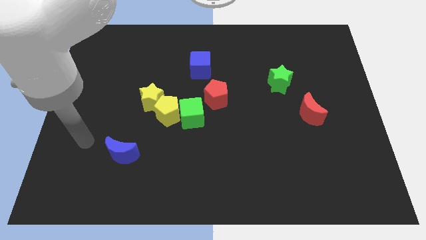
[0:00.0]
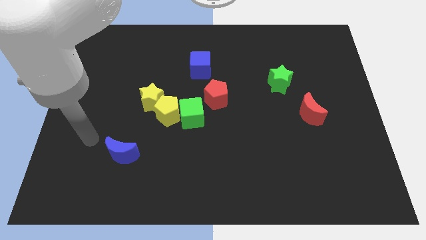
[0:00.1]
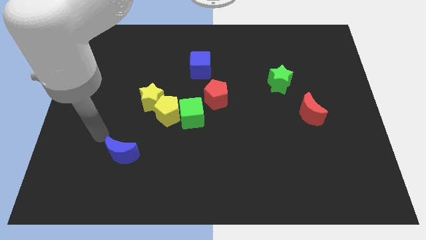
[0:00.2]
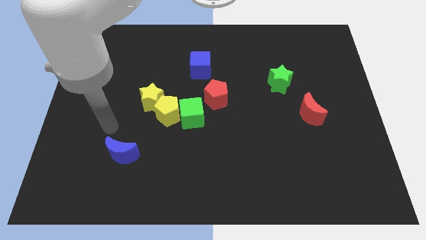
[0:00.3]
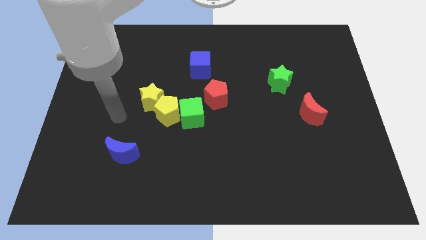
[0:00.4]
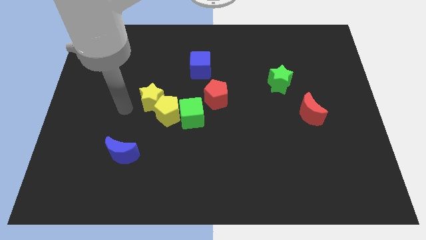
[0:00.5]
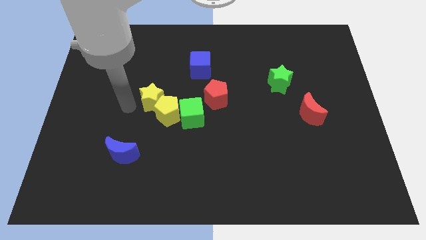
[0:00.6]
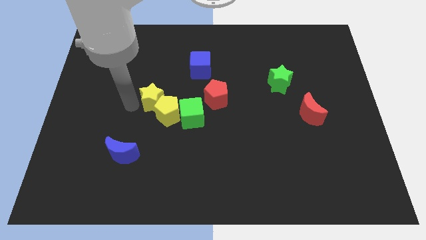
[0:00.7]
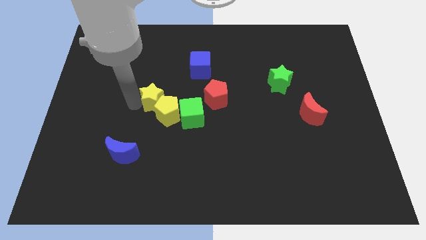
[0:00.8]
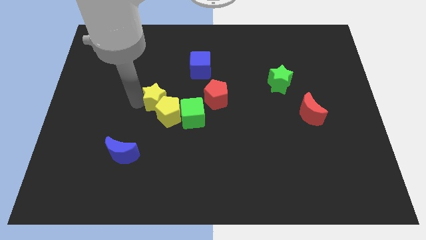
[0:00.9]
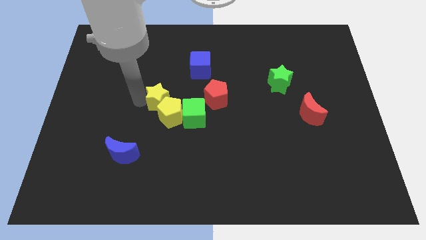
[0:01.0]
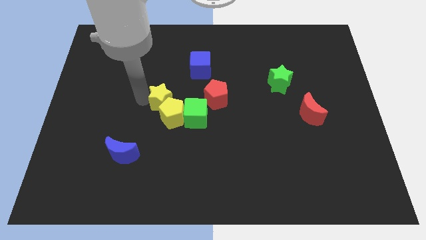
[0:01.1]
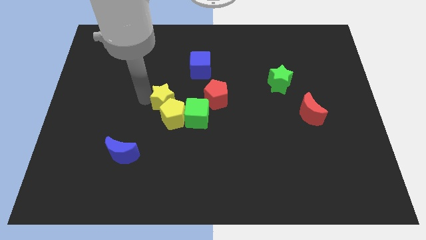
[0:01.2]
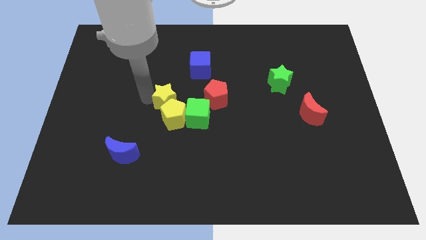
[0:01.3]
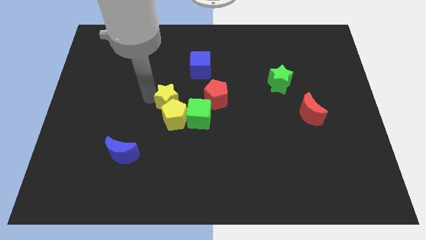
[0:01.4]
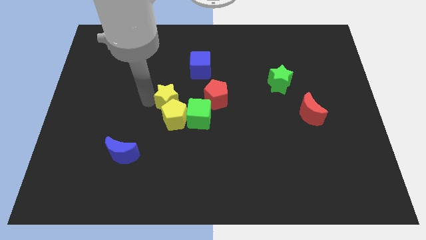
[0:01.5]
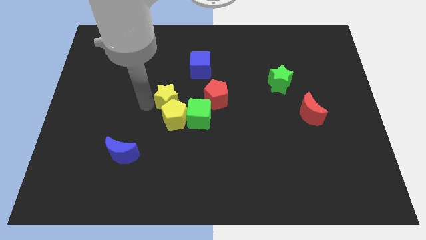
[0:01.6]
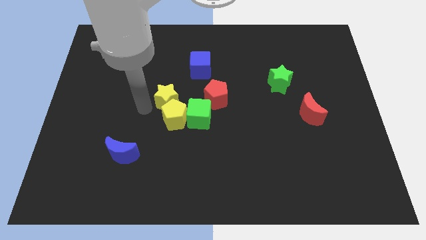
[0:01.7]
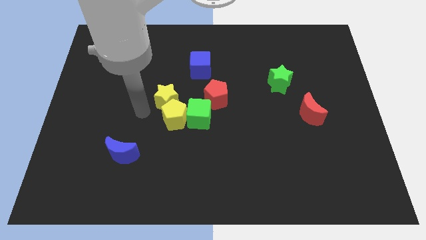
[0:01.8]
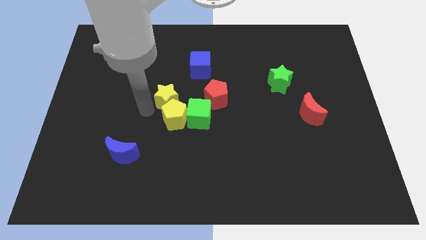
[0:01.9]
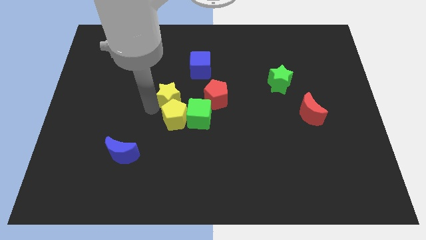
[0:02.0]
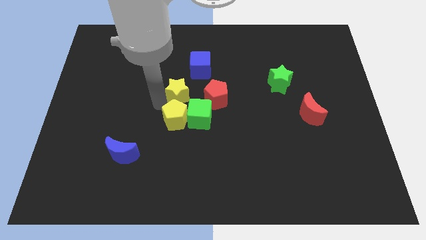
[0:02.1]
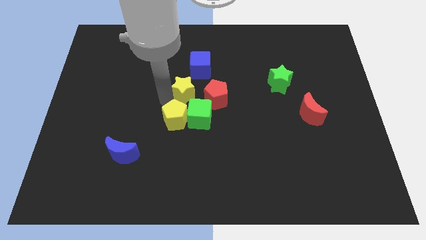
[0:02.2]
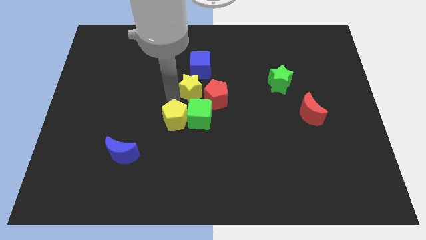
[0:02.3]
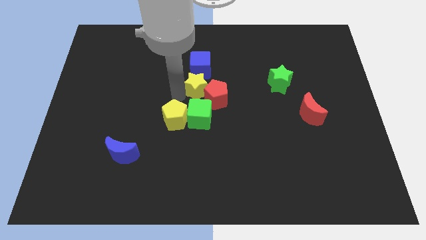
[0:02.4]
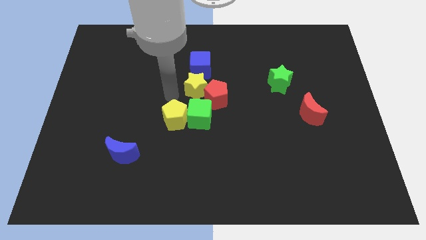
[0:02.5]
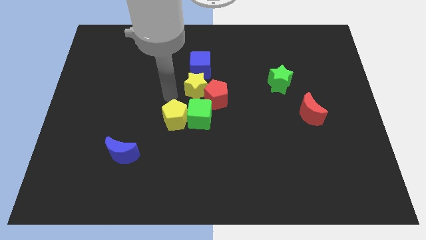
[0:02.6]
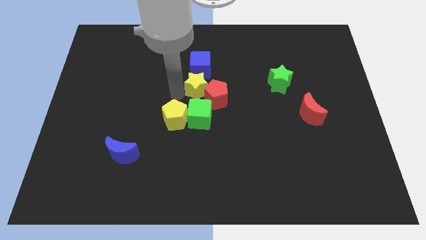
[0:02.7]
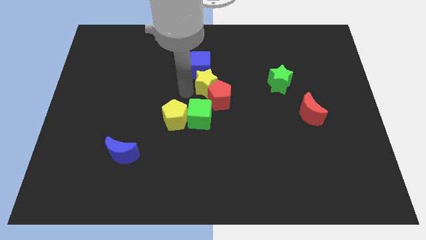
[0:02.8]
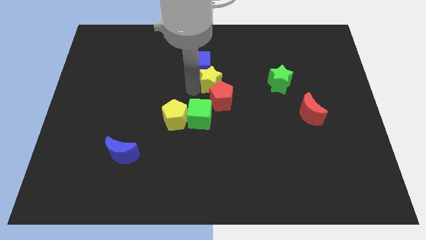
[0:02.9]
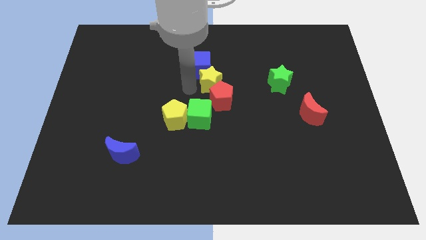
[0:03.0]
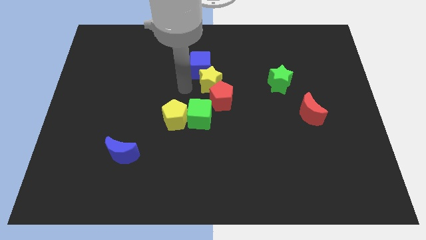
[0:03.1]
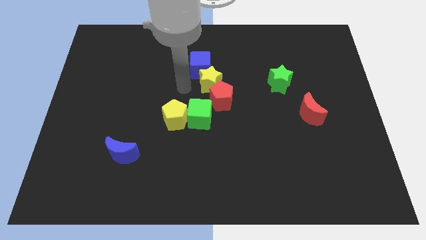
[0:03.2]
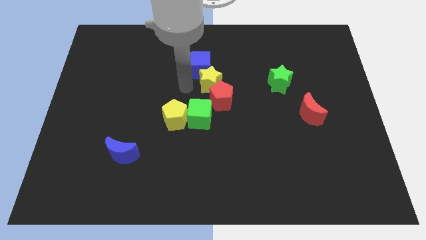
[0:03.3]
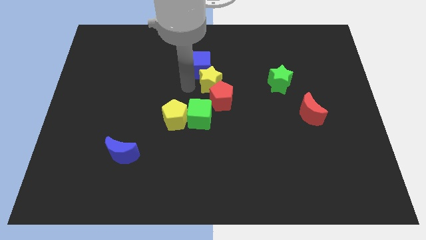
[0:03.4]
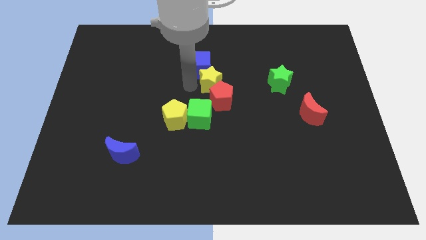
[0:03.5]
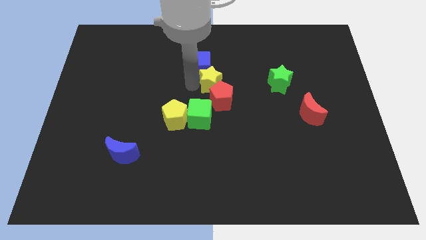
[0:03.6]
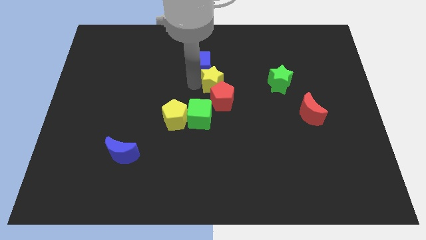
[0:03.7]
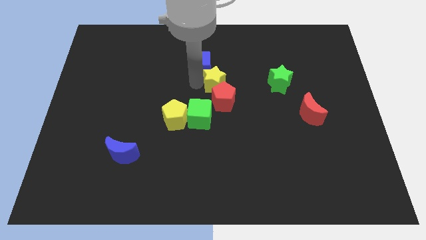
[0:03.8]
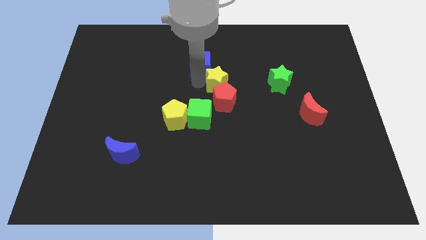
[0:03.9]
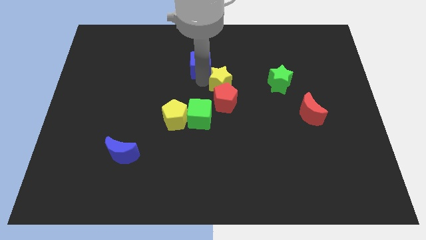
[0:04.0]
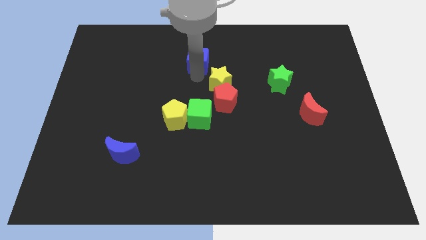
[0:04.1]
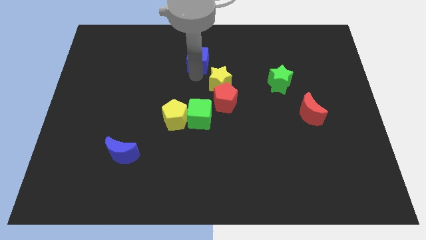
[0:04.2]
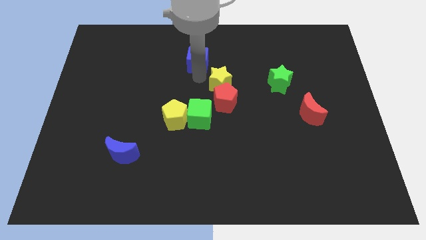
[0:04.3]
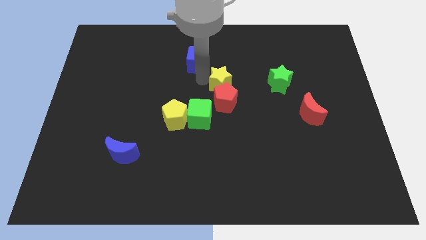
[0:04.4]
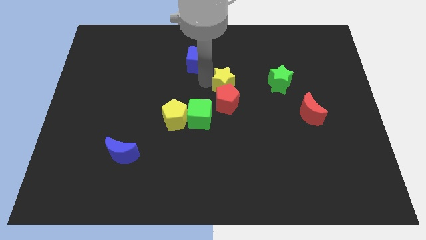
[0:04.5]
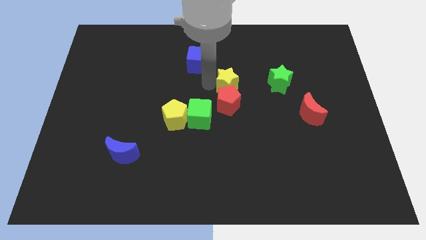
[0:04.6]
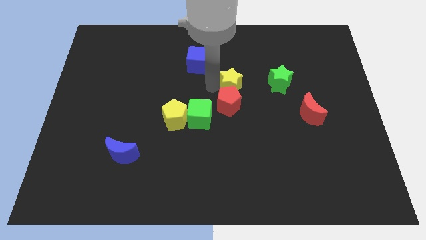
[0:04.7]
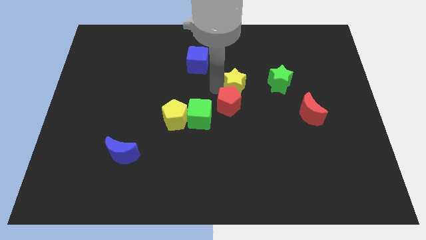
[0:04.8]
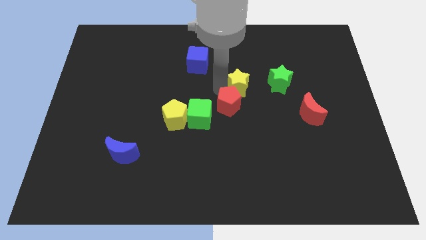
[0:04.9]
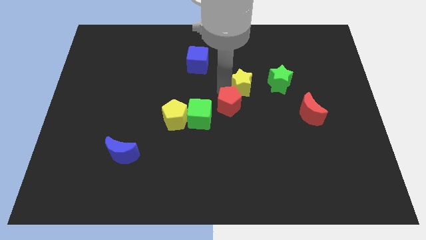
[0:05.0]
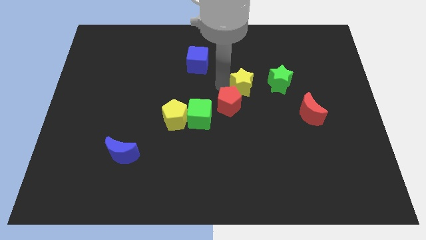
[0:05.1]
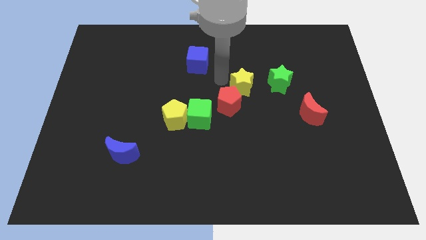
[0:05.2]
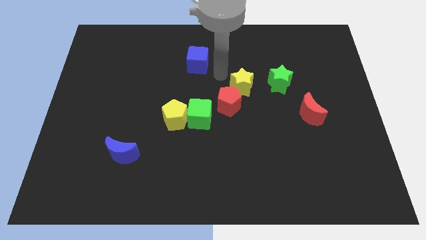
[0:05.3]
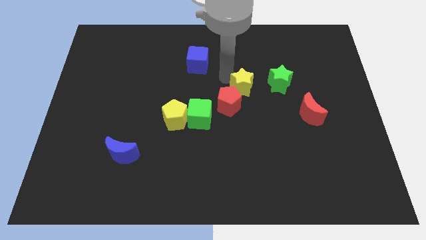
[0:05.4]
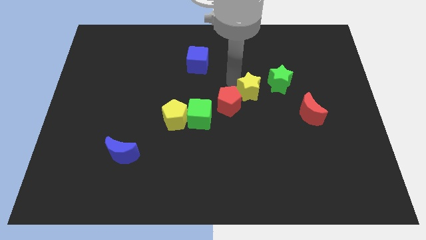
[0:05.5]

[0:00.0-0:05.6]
push the yellow star right of the red pentagon

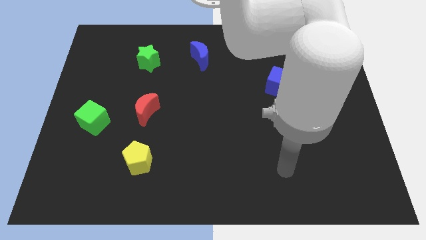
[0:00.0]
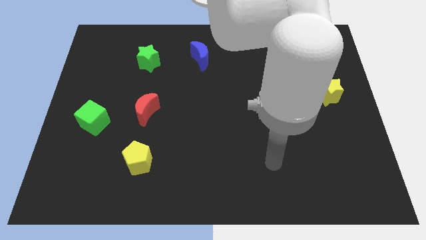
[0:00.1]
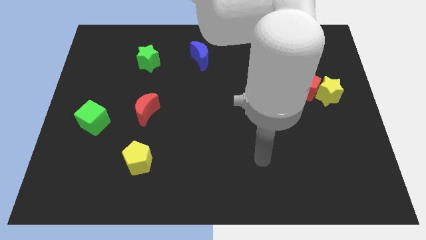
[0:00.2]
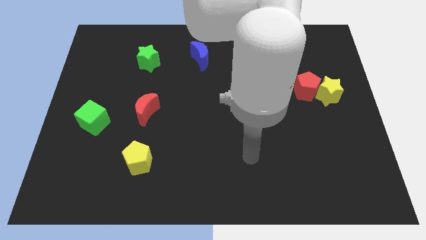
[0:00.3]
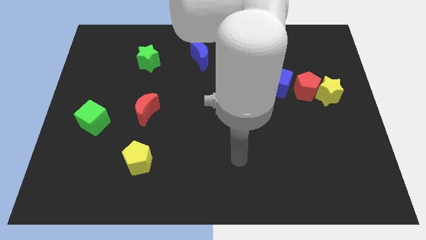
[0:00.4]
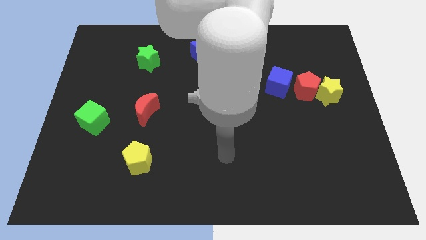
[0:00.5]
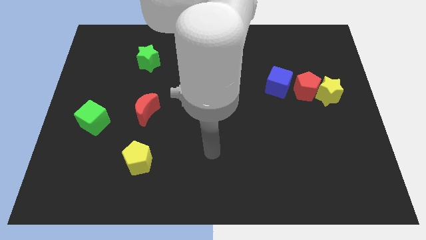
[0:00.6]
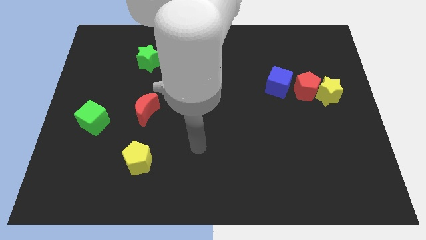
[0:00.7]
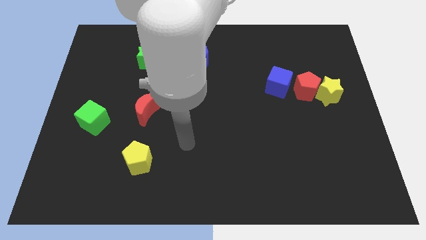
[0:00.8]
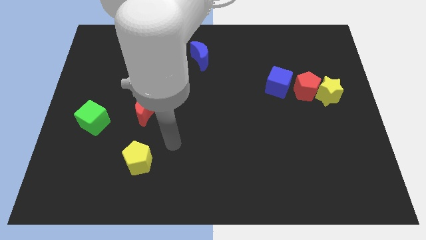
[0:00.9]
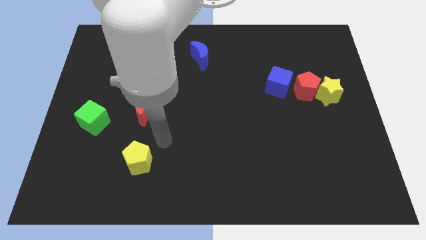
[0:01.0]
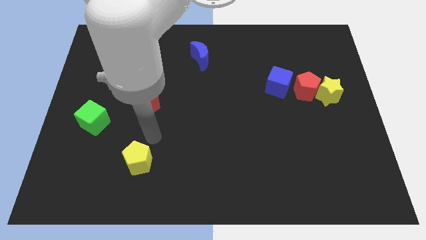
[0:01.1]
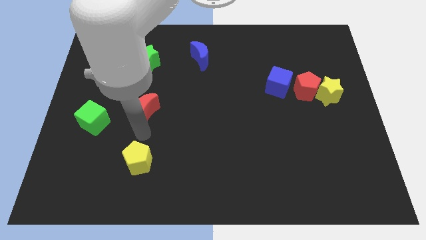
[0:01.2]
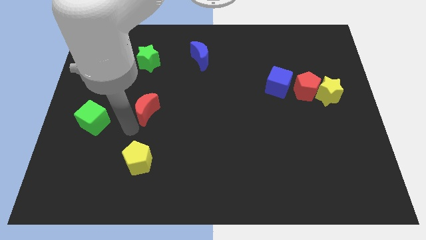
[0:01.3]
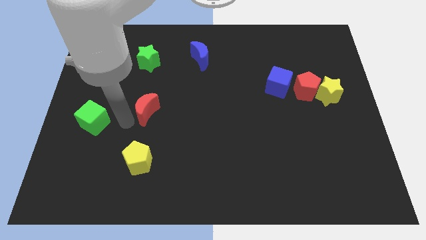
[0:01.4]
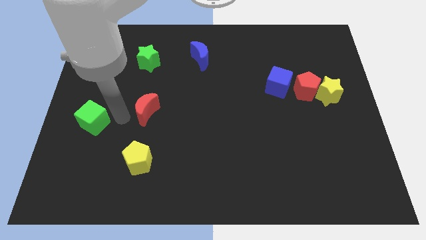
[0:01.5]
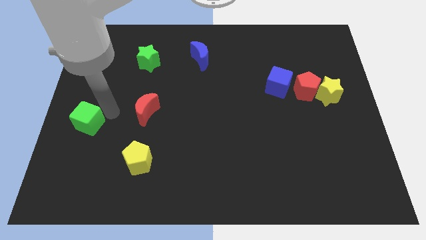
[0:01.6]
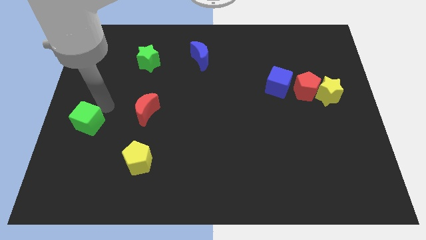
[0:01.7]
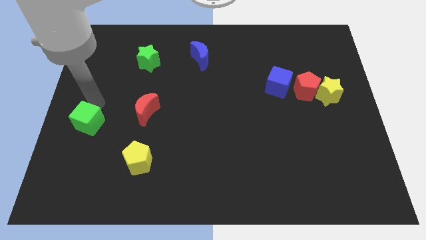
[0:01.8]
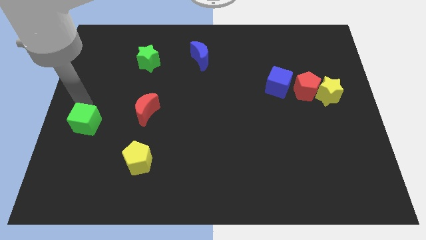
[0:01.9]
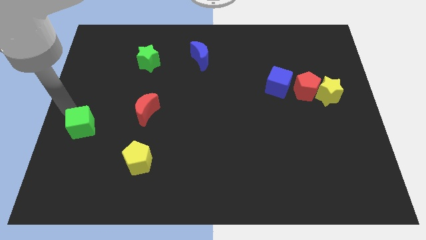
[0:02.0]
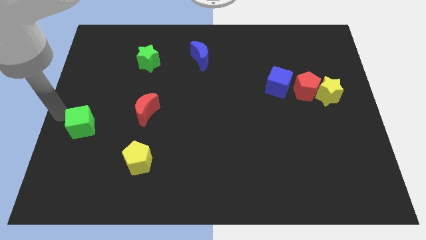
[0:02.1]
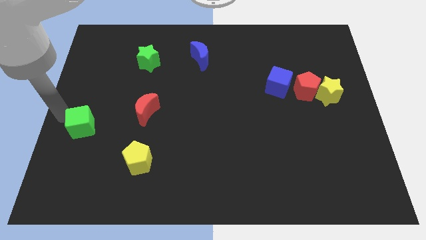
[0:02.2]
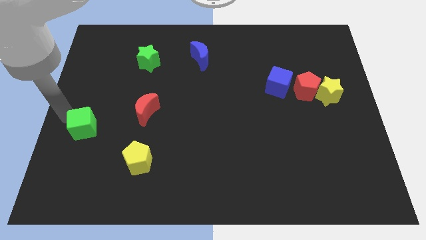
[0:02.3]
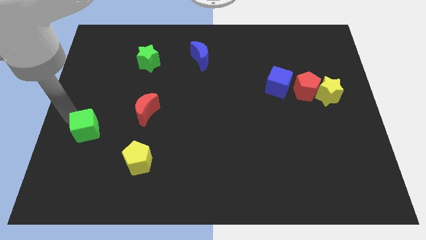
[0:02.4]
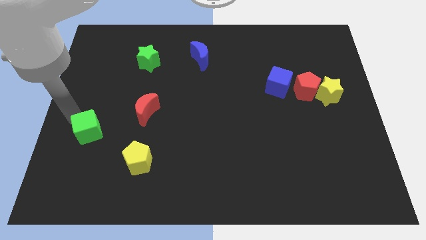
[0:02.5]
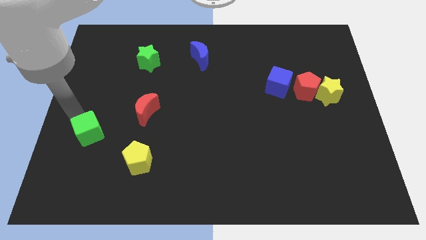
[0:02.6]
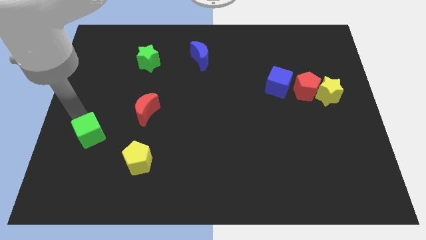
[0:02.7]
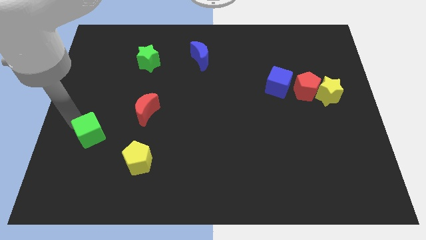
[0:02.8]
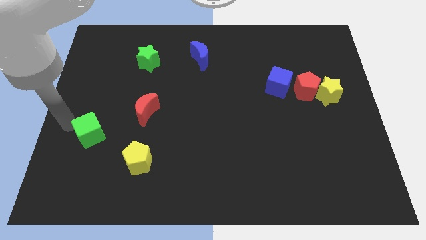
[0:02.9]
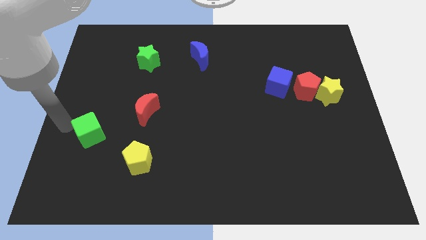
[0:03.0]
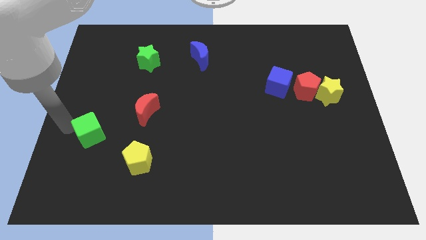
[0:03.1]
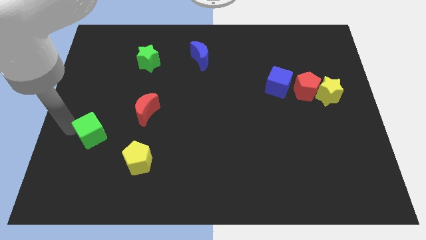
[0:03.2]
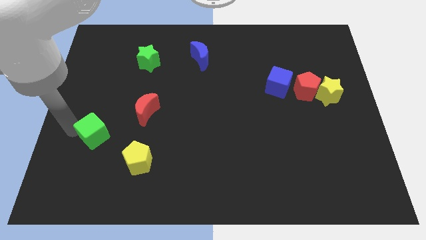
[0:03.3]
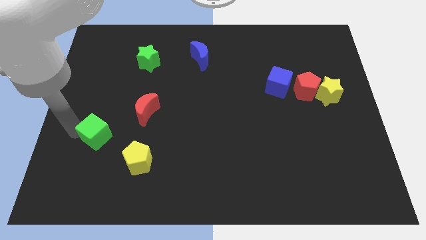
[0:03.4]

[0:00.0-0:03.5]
move the green cube to the top left side of the yellow pentagon
